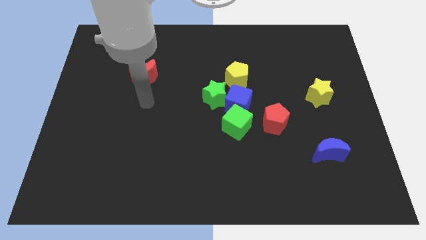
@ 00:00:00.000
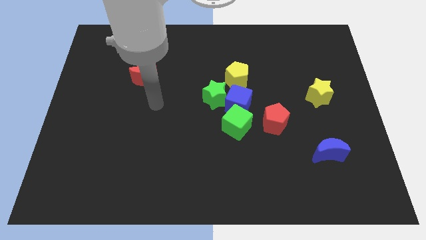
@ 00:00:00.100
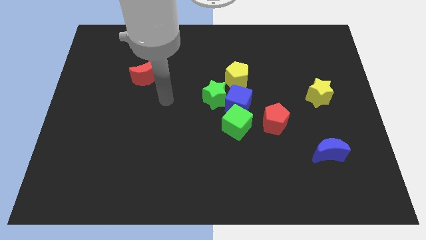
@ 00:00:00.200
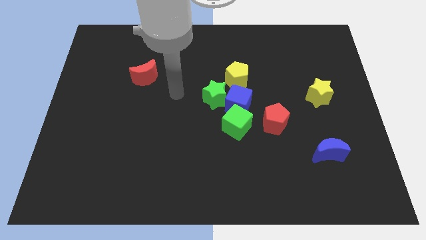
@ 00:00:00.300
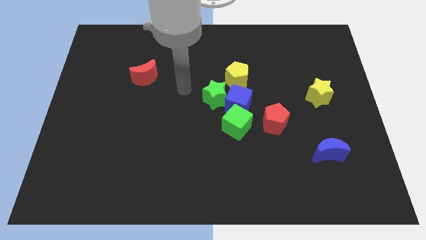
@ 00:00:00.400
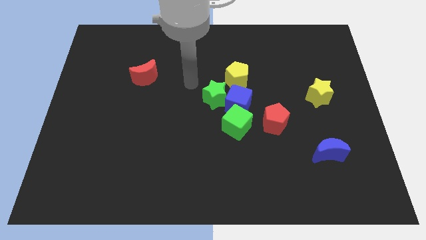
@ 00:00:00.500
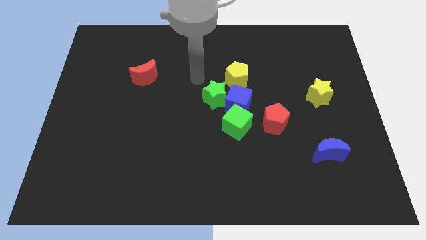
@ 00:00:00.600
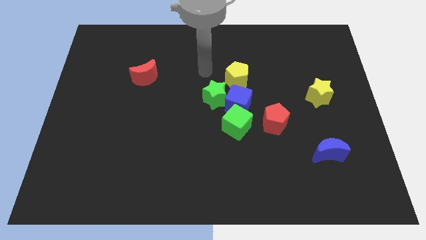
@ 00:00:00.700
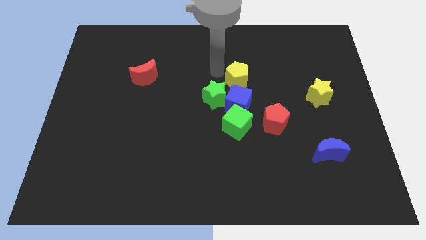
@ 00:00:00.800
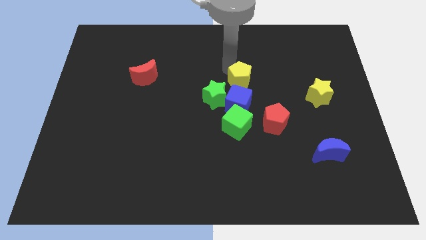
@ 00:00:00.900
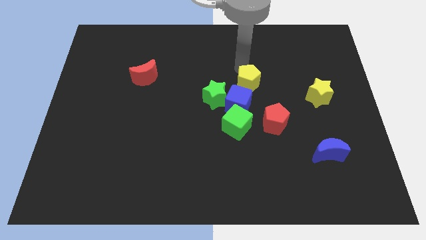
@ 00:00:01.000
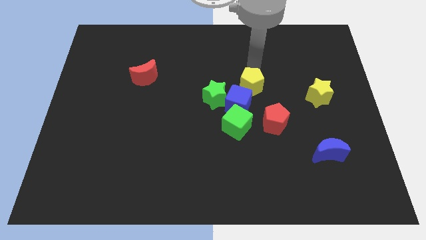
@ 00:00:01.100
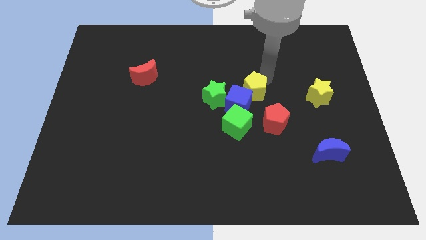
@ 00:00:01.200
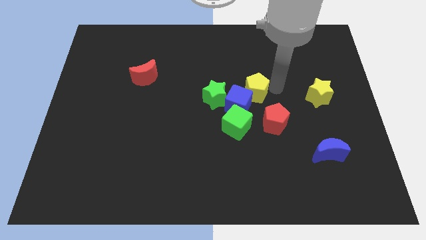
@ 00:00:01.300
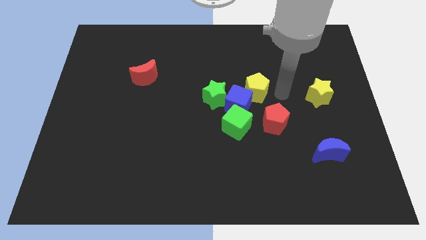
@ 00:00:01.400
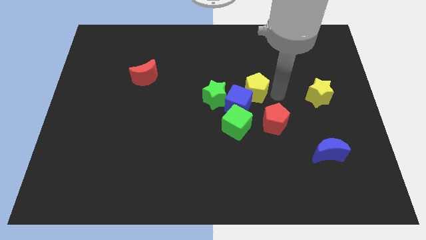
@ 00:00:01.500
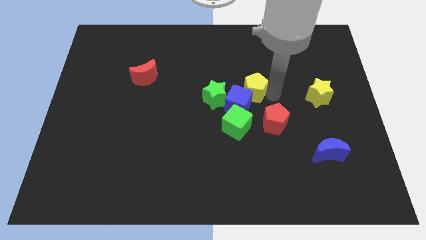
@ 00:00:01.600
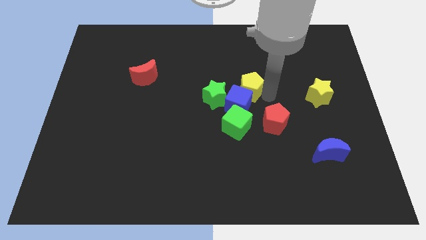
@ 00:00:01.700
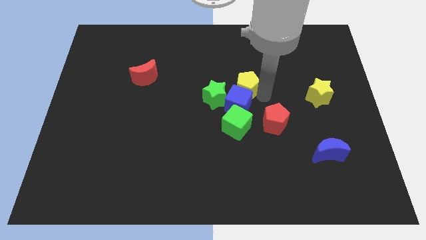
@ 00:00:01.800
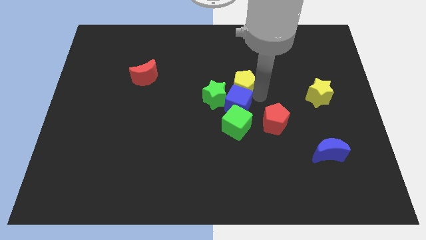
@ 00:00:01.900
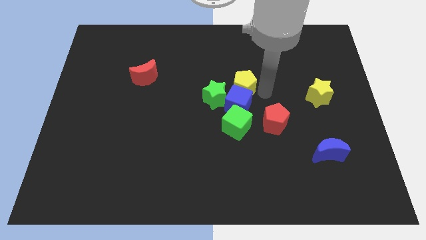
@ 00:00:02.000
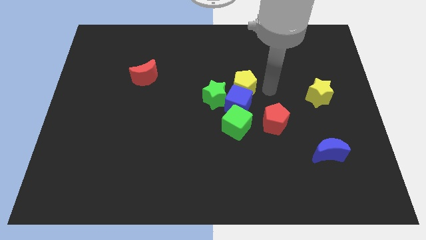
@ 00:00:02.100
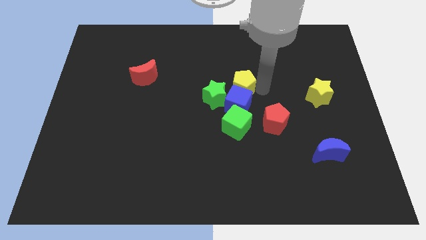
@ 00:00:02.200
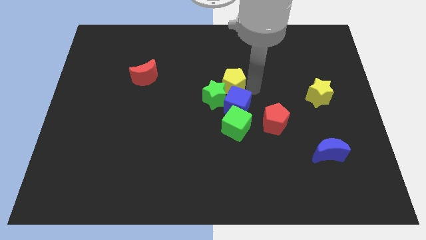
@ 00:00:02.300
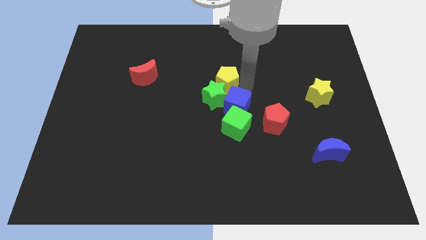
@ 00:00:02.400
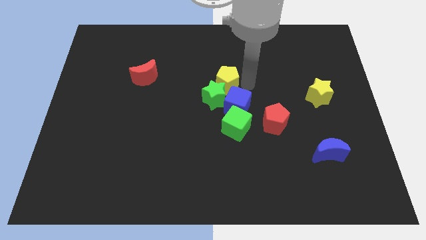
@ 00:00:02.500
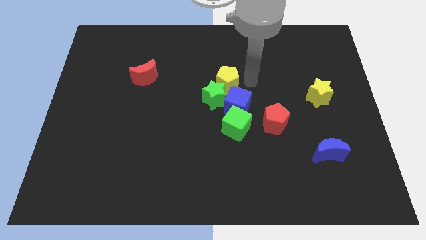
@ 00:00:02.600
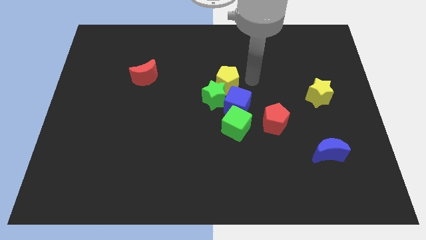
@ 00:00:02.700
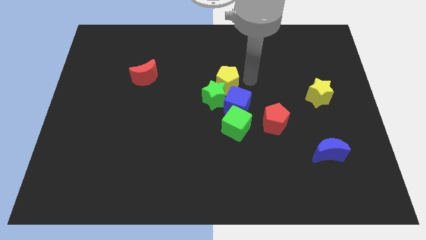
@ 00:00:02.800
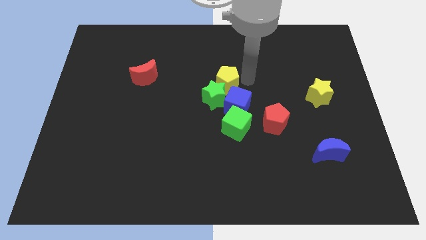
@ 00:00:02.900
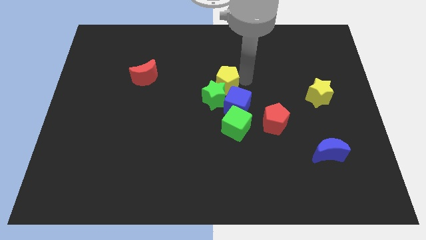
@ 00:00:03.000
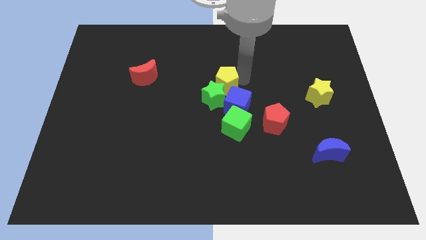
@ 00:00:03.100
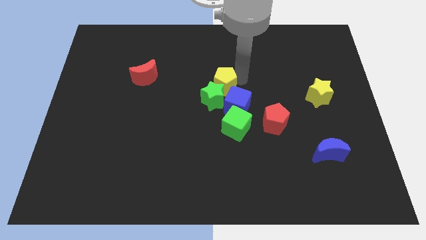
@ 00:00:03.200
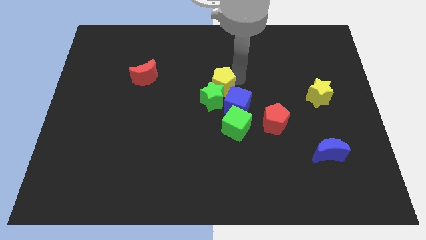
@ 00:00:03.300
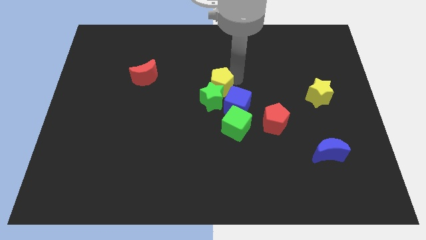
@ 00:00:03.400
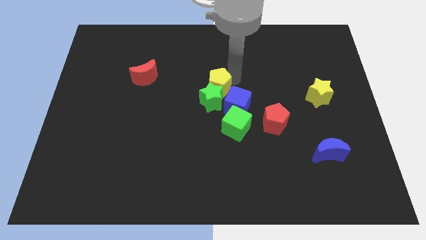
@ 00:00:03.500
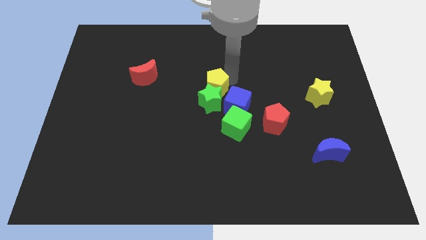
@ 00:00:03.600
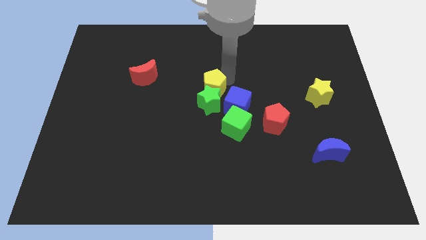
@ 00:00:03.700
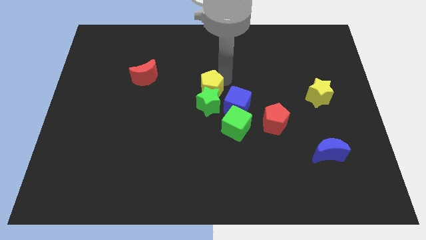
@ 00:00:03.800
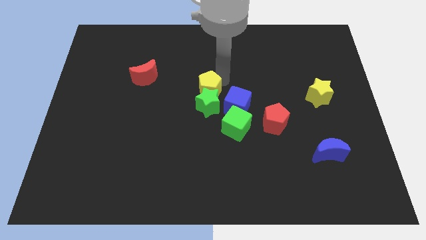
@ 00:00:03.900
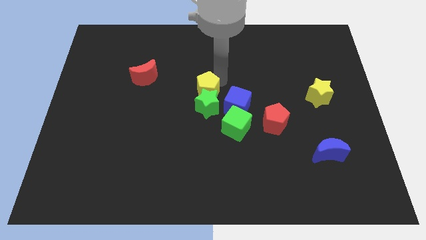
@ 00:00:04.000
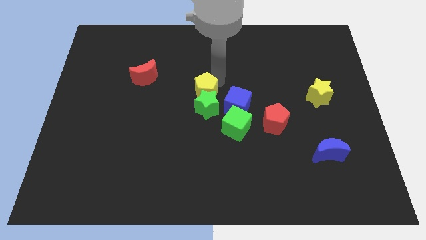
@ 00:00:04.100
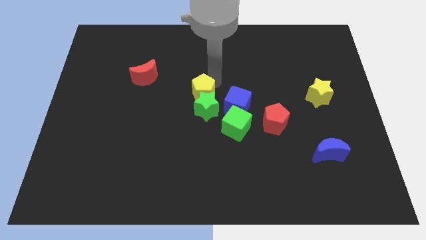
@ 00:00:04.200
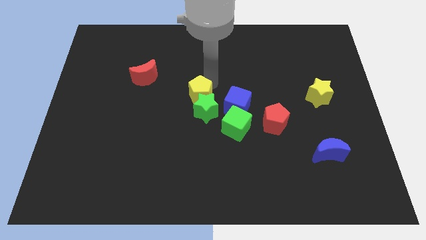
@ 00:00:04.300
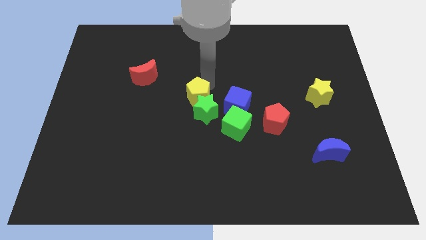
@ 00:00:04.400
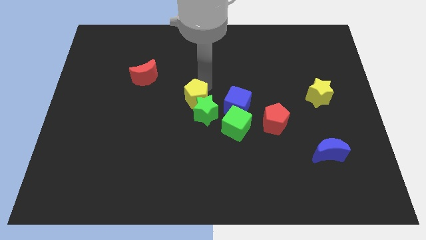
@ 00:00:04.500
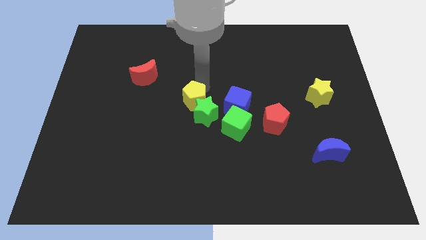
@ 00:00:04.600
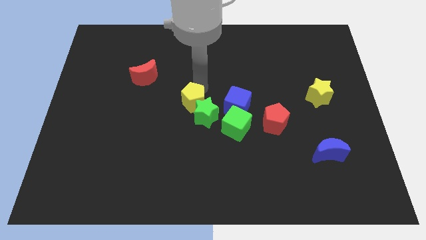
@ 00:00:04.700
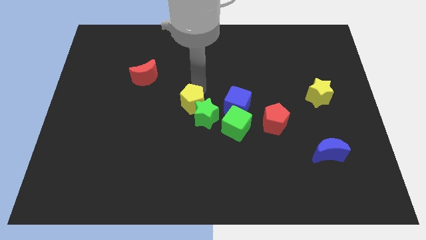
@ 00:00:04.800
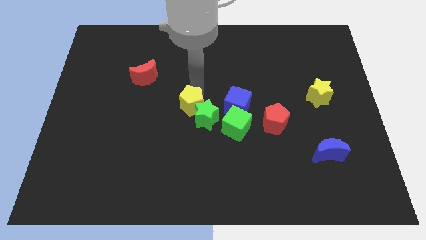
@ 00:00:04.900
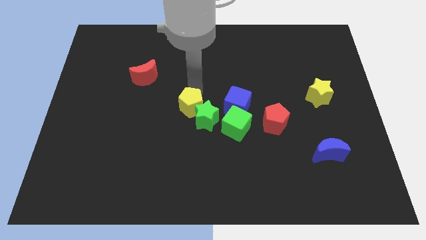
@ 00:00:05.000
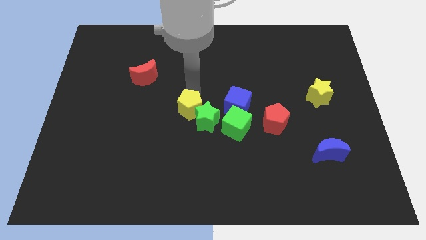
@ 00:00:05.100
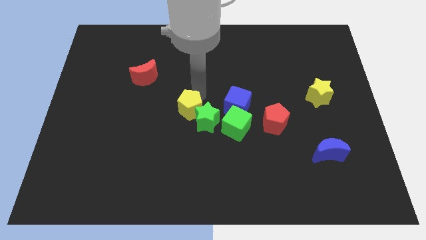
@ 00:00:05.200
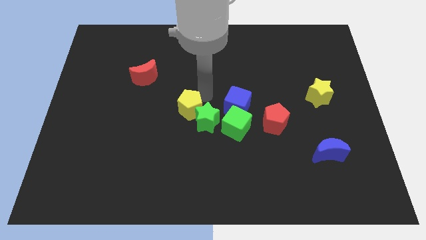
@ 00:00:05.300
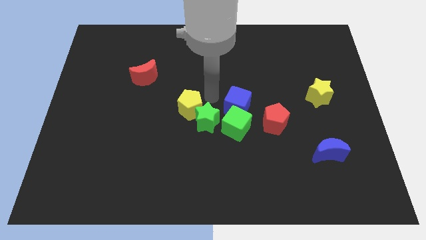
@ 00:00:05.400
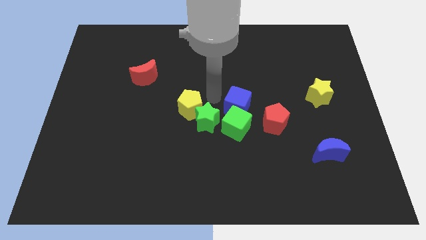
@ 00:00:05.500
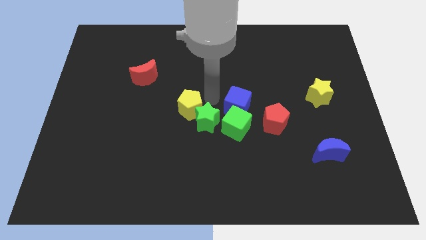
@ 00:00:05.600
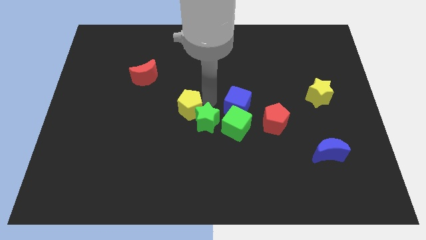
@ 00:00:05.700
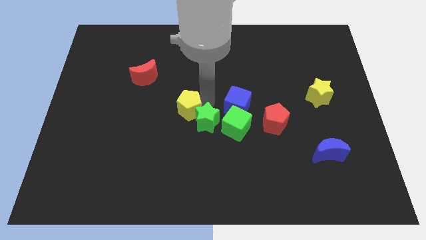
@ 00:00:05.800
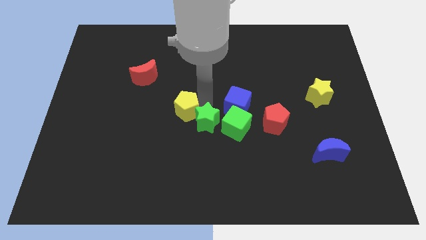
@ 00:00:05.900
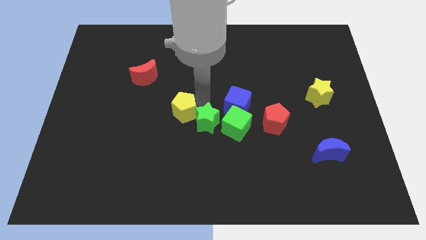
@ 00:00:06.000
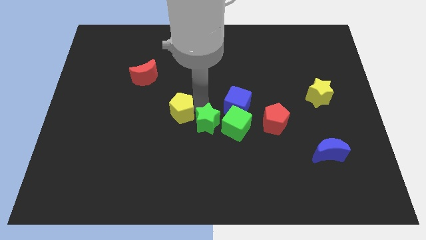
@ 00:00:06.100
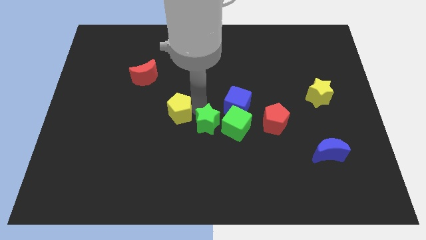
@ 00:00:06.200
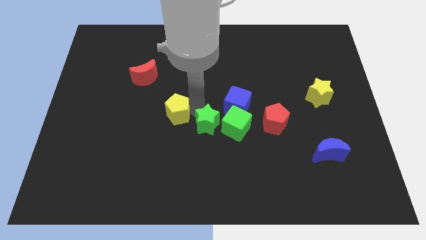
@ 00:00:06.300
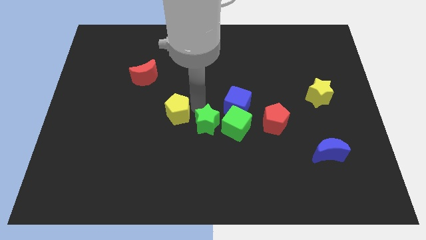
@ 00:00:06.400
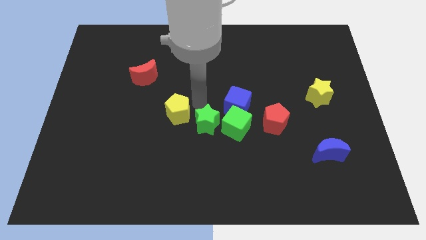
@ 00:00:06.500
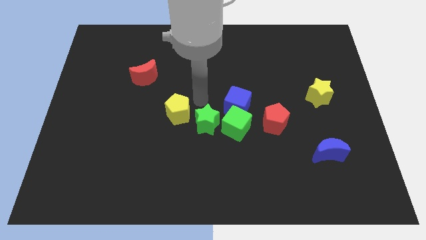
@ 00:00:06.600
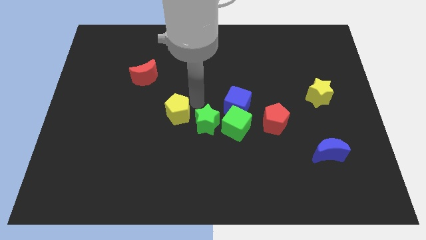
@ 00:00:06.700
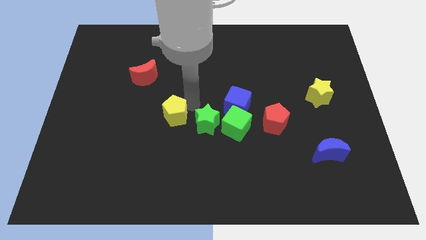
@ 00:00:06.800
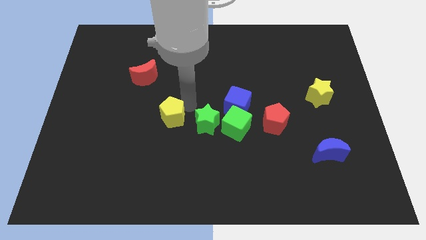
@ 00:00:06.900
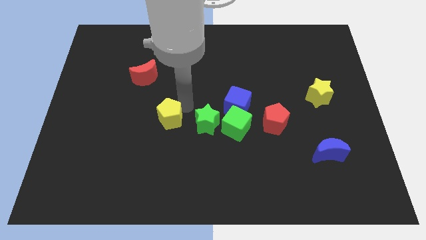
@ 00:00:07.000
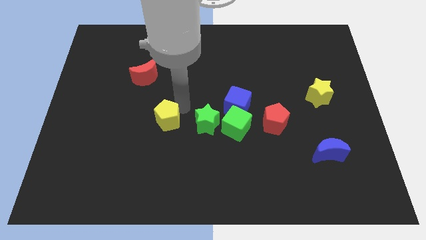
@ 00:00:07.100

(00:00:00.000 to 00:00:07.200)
slide the yellow pentagon down and left

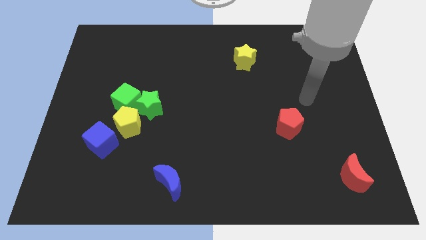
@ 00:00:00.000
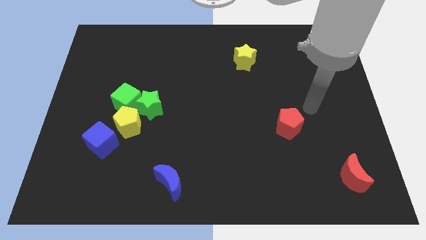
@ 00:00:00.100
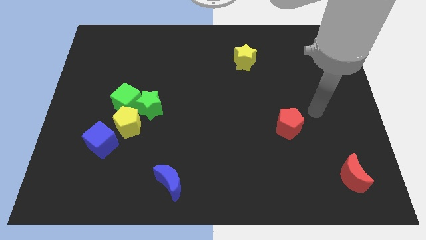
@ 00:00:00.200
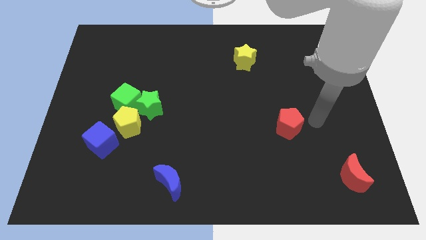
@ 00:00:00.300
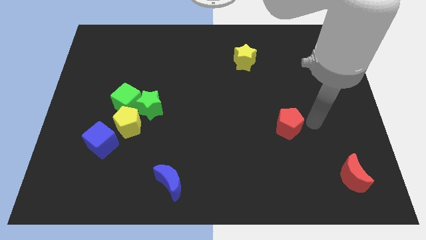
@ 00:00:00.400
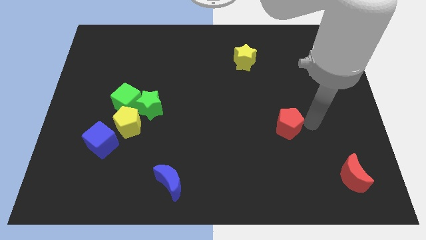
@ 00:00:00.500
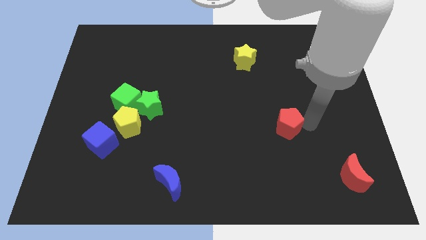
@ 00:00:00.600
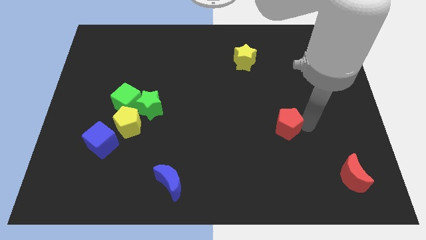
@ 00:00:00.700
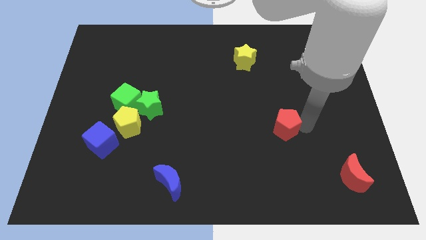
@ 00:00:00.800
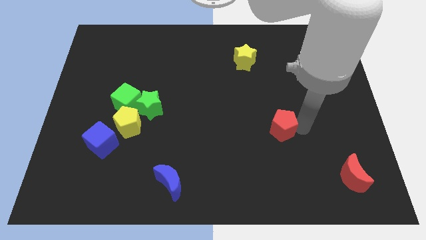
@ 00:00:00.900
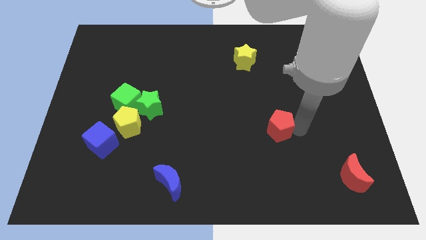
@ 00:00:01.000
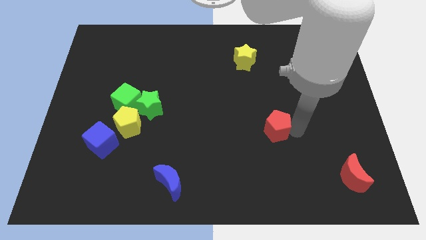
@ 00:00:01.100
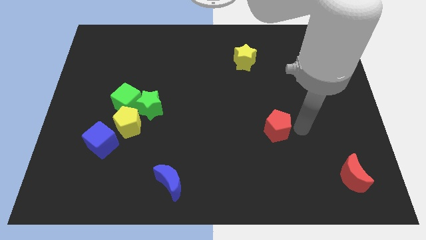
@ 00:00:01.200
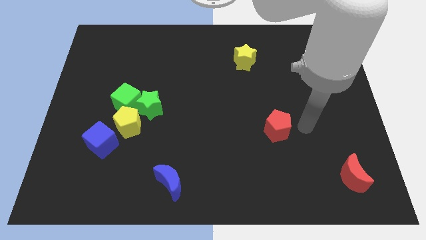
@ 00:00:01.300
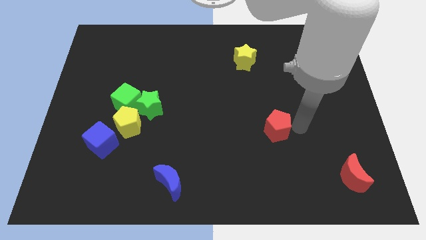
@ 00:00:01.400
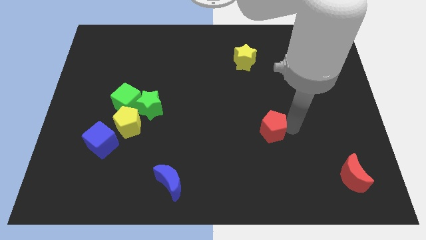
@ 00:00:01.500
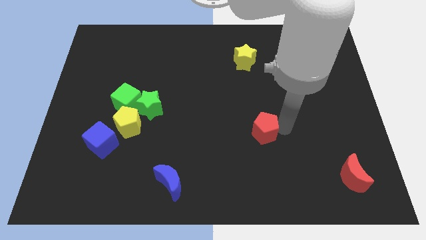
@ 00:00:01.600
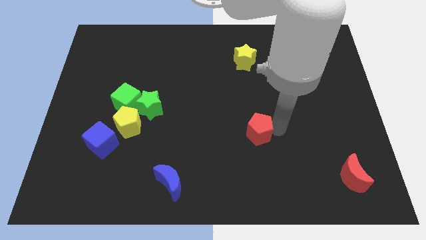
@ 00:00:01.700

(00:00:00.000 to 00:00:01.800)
move the red pentagon left slightly
